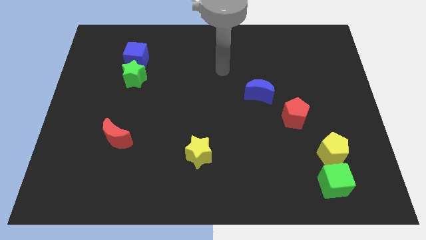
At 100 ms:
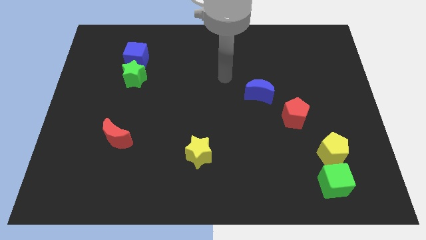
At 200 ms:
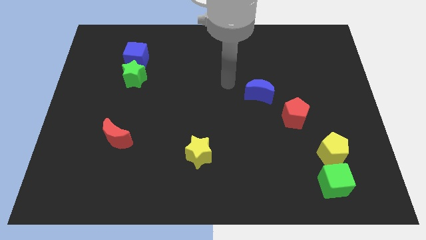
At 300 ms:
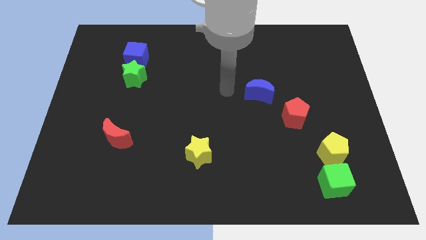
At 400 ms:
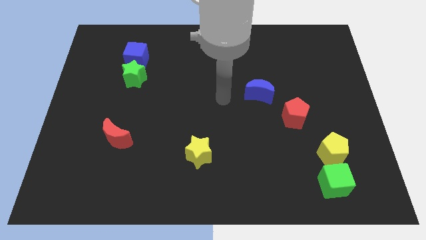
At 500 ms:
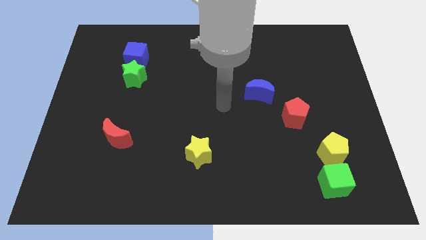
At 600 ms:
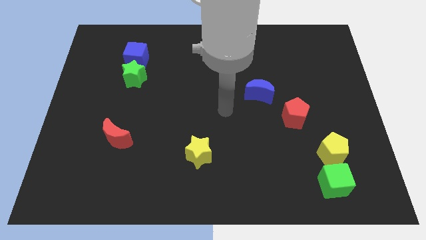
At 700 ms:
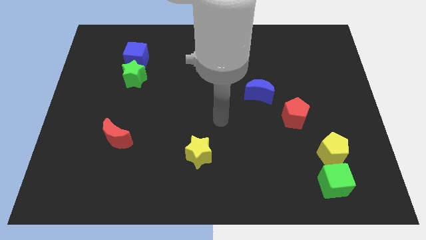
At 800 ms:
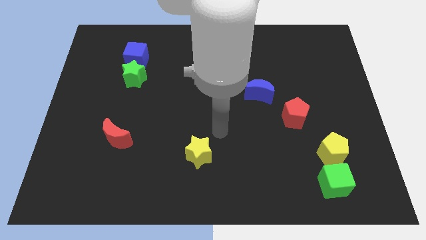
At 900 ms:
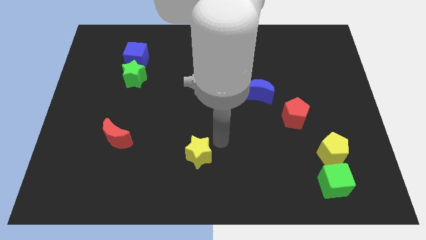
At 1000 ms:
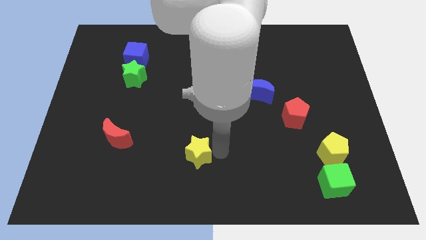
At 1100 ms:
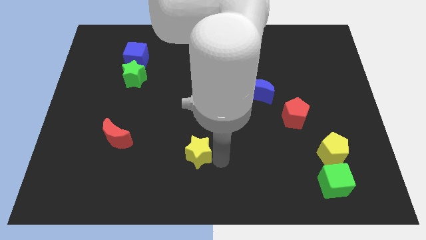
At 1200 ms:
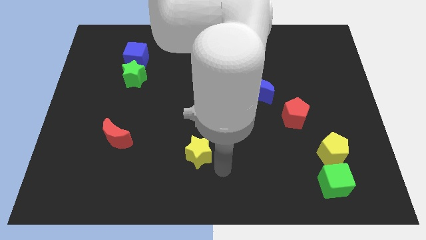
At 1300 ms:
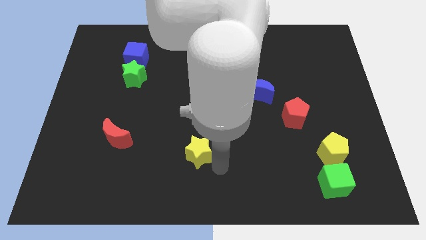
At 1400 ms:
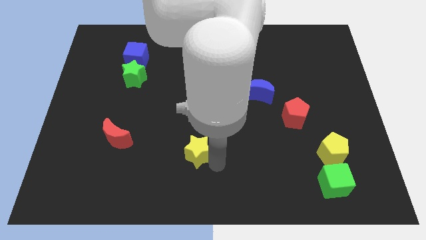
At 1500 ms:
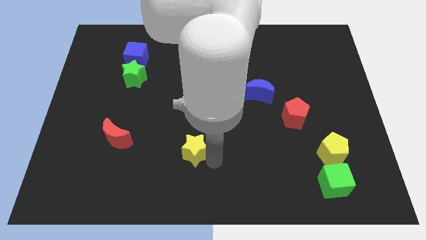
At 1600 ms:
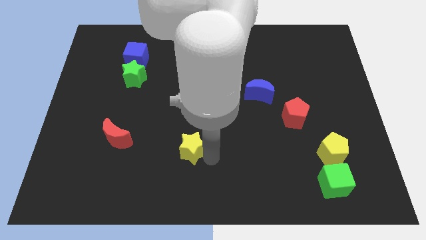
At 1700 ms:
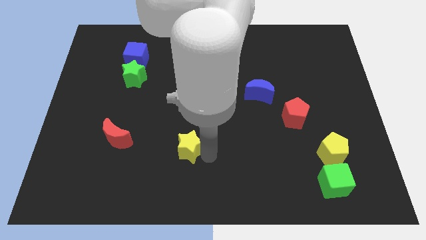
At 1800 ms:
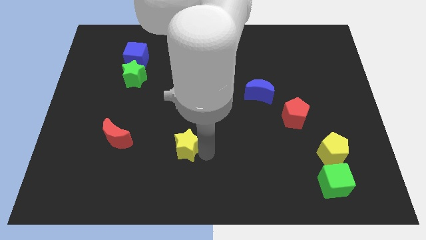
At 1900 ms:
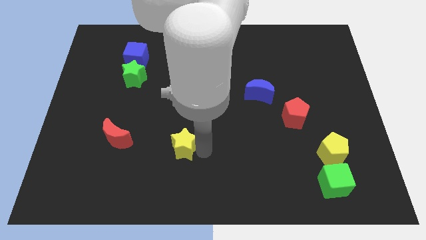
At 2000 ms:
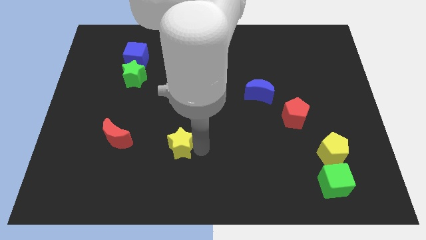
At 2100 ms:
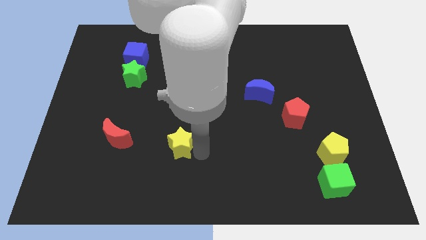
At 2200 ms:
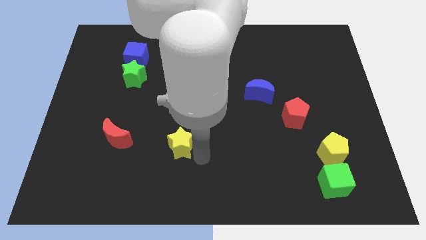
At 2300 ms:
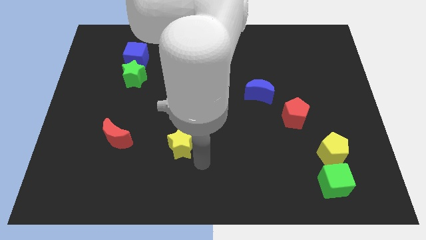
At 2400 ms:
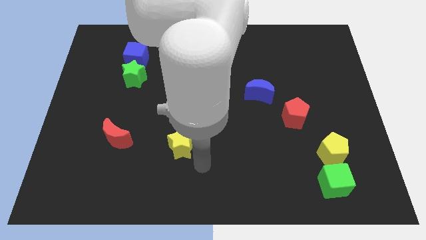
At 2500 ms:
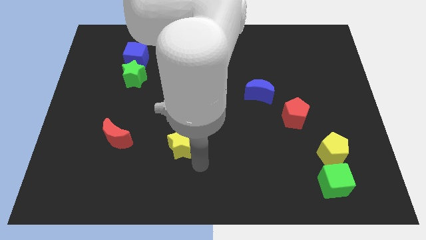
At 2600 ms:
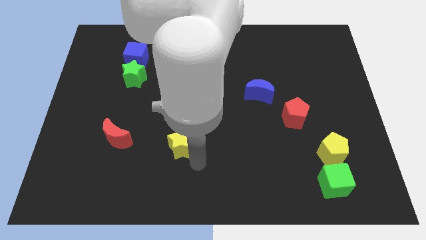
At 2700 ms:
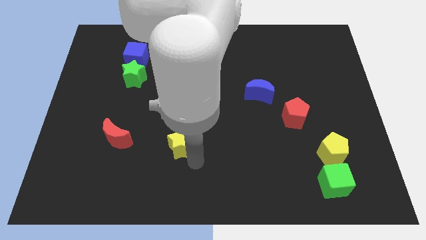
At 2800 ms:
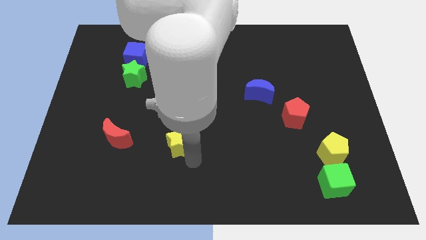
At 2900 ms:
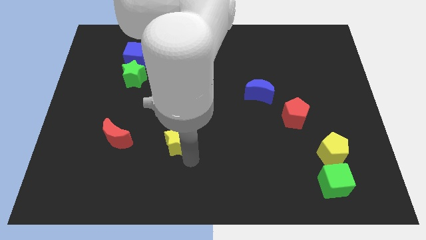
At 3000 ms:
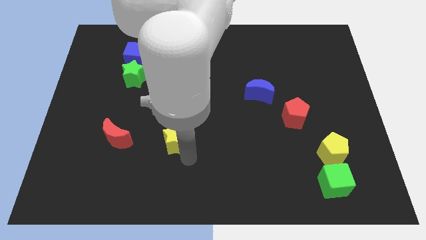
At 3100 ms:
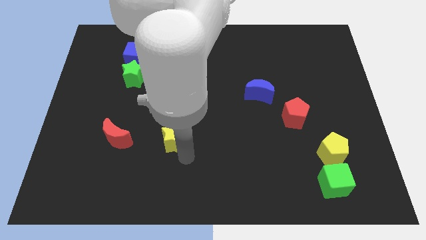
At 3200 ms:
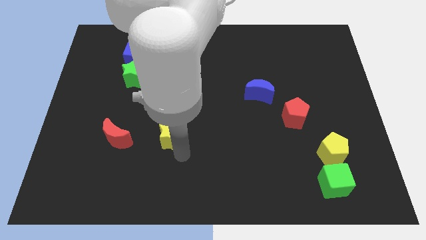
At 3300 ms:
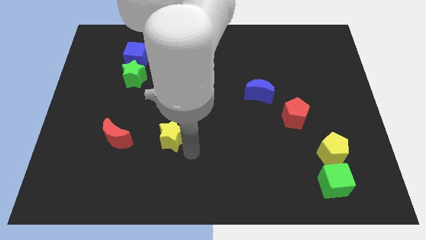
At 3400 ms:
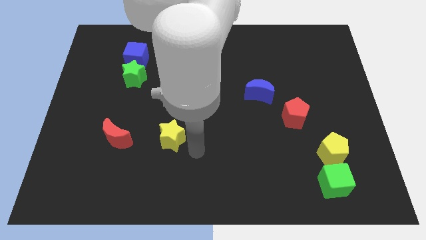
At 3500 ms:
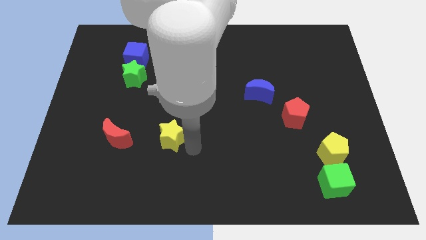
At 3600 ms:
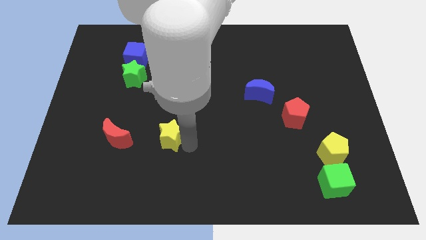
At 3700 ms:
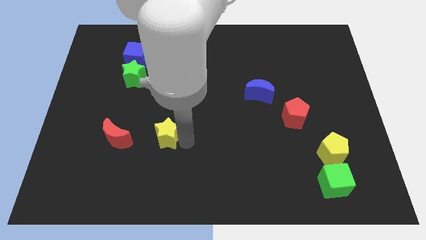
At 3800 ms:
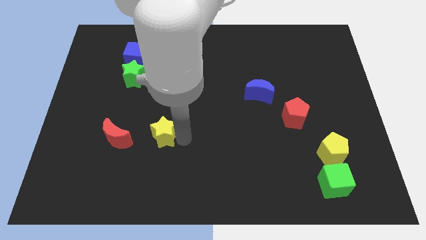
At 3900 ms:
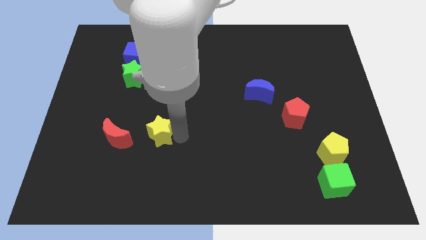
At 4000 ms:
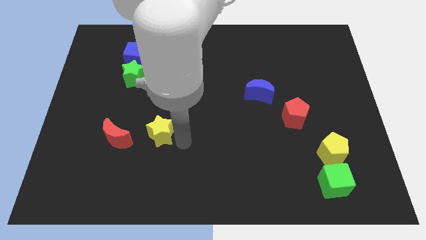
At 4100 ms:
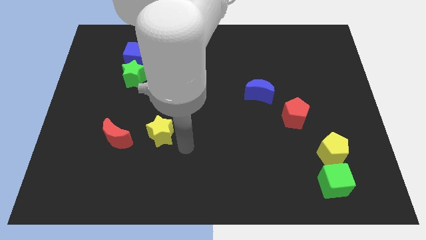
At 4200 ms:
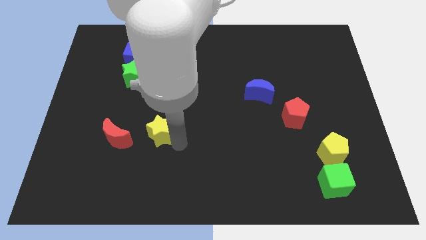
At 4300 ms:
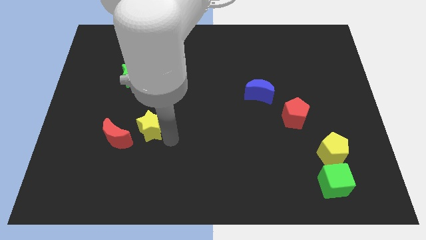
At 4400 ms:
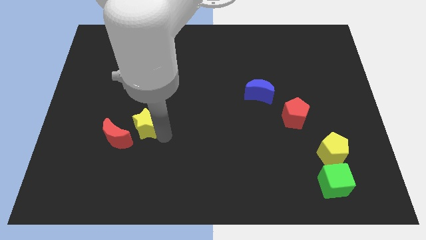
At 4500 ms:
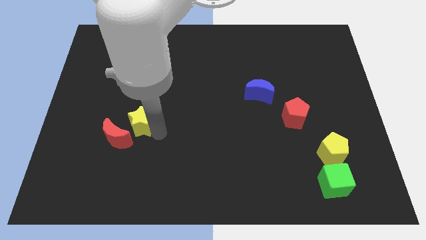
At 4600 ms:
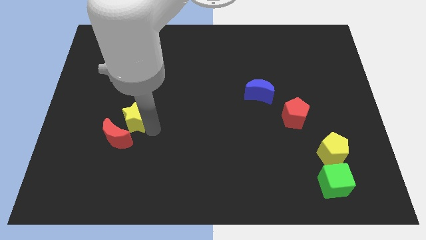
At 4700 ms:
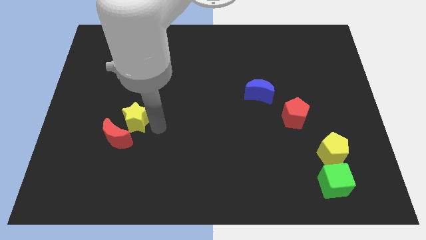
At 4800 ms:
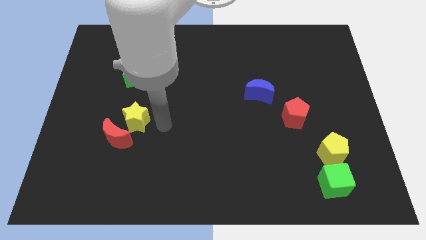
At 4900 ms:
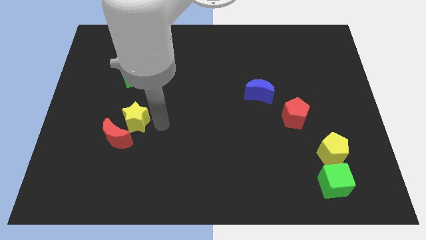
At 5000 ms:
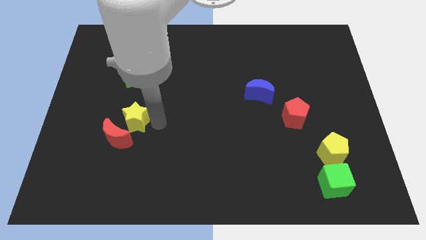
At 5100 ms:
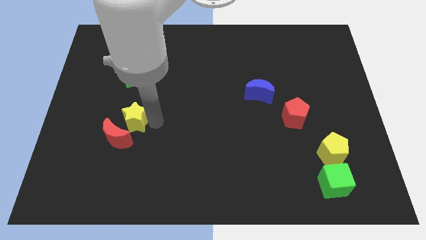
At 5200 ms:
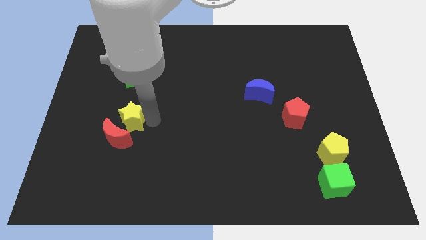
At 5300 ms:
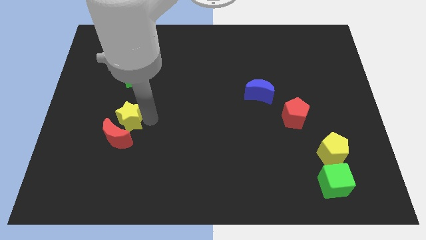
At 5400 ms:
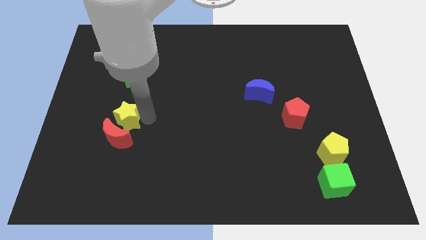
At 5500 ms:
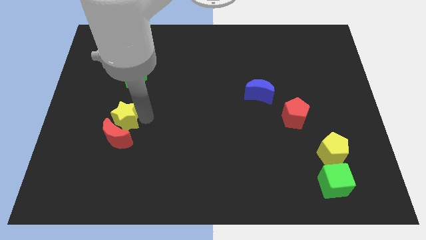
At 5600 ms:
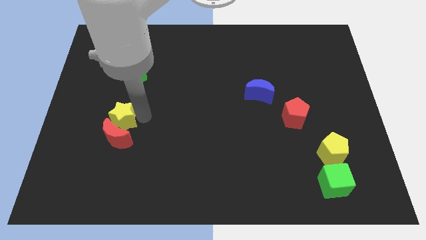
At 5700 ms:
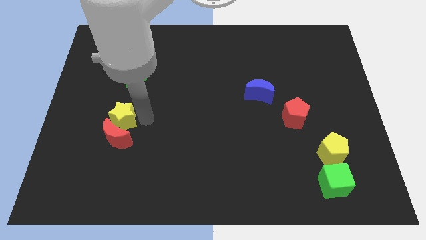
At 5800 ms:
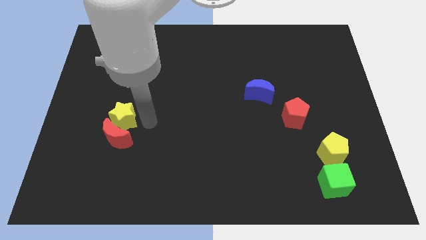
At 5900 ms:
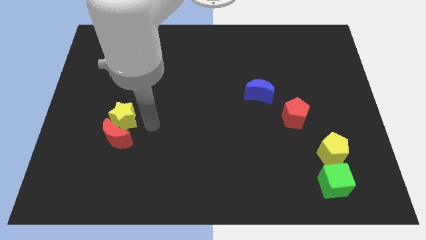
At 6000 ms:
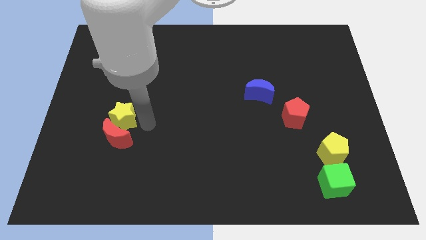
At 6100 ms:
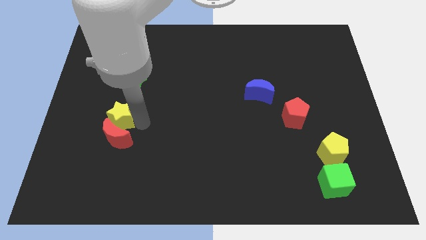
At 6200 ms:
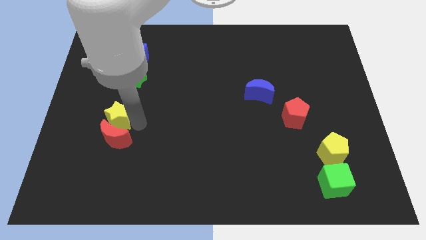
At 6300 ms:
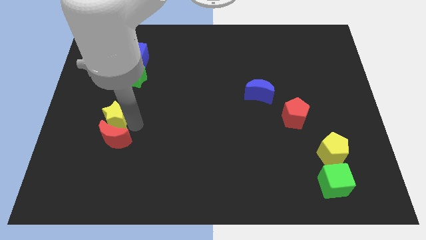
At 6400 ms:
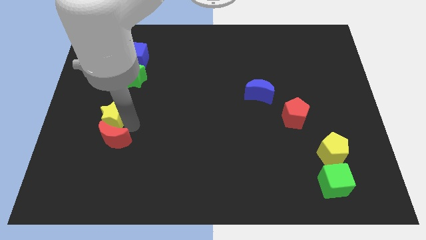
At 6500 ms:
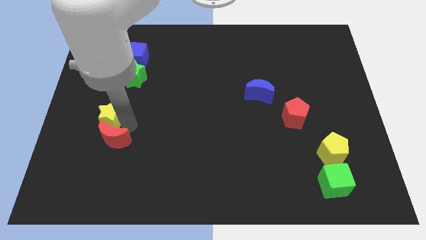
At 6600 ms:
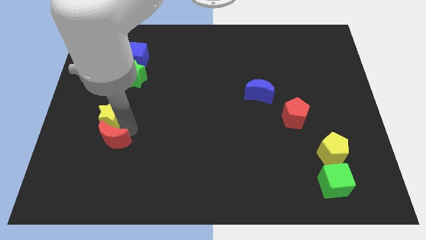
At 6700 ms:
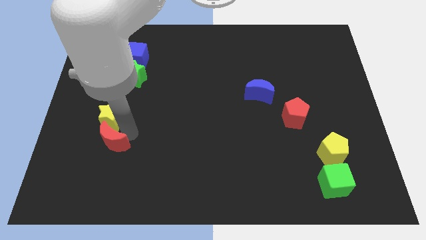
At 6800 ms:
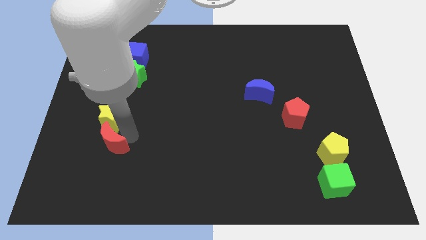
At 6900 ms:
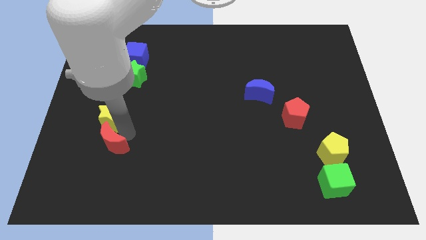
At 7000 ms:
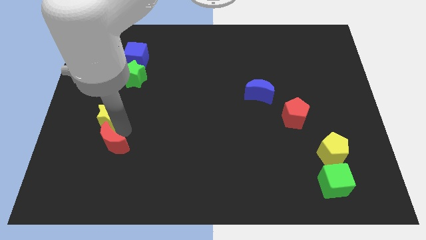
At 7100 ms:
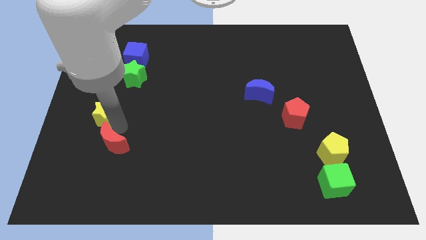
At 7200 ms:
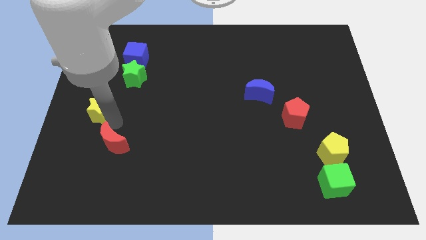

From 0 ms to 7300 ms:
move the yellow star to the left side
